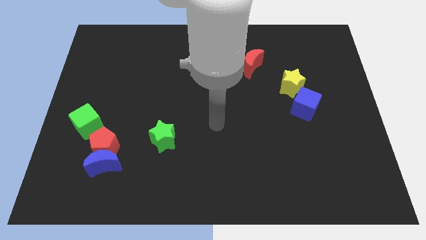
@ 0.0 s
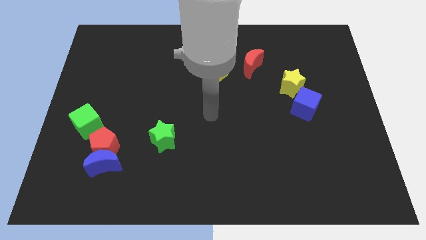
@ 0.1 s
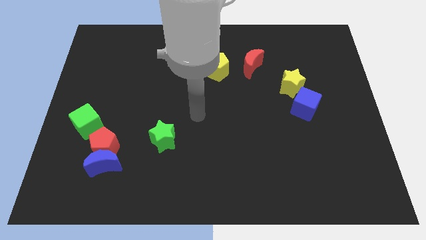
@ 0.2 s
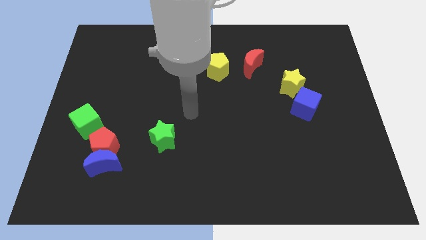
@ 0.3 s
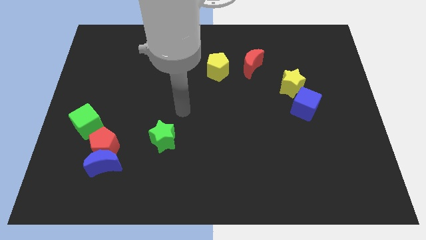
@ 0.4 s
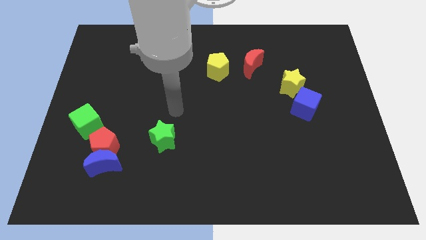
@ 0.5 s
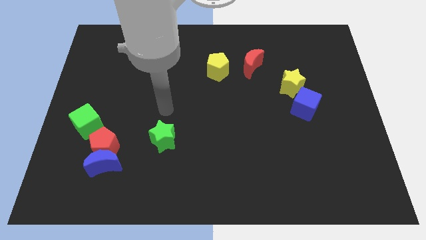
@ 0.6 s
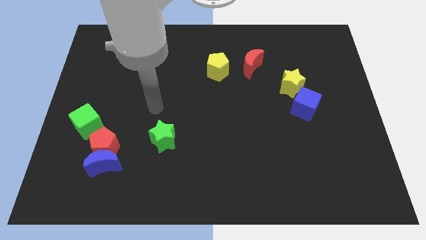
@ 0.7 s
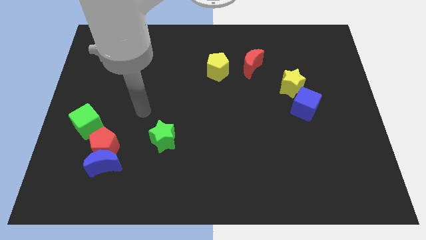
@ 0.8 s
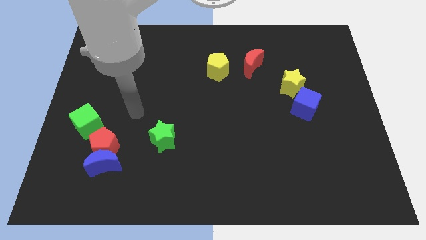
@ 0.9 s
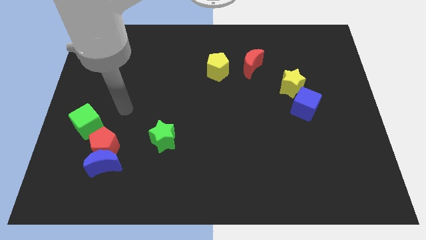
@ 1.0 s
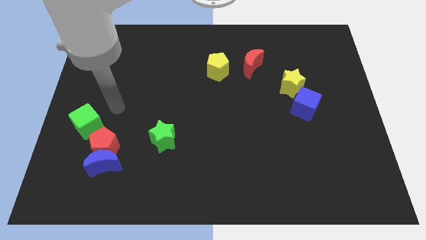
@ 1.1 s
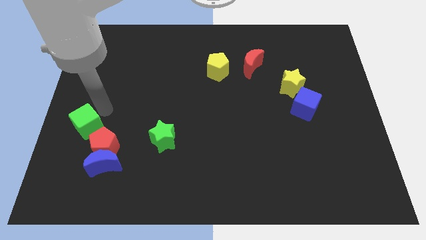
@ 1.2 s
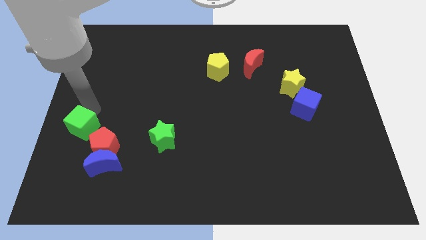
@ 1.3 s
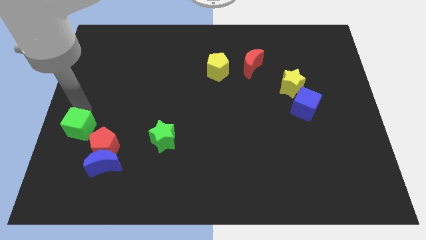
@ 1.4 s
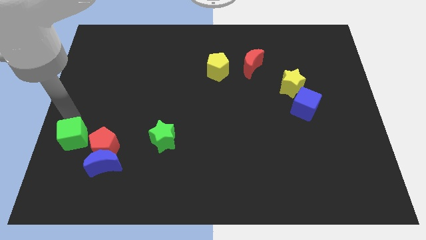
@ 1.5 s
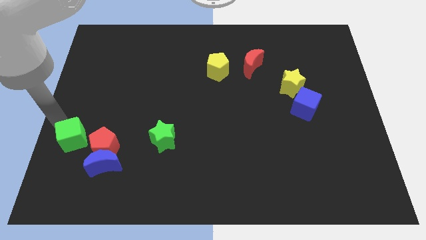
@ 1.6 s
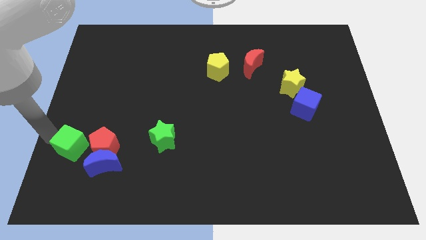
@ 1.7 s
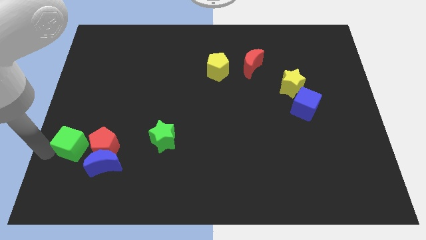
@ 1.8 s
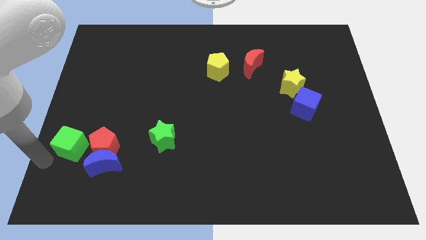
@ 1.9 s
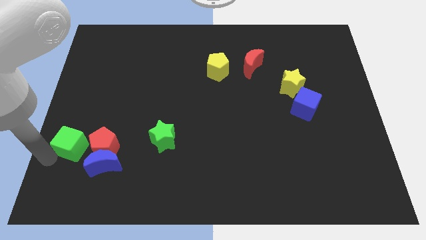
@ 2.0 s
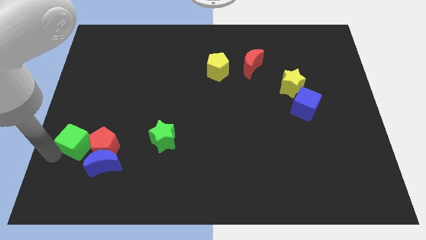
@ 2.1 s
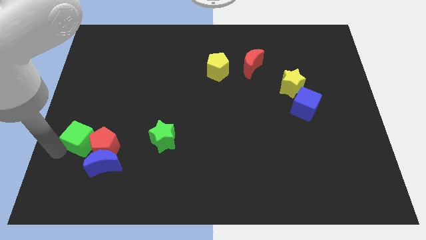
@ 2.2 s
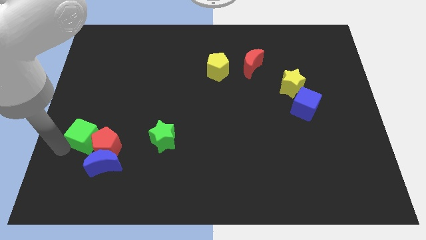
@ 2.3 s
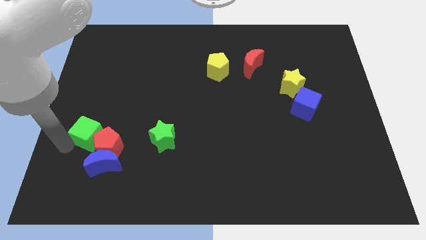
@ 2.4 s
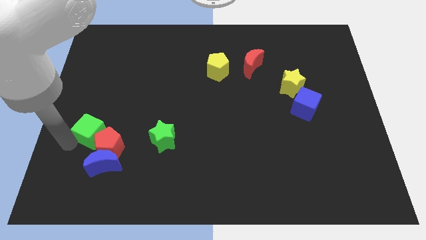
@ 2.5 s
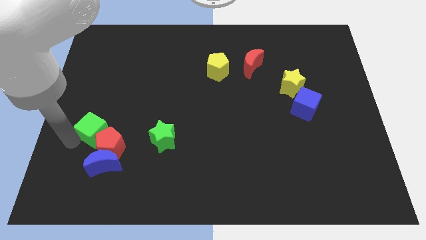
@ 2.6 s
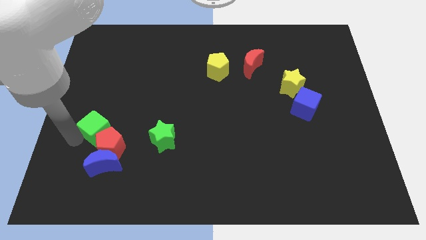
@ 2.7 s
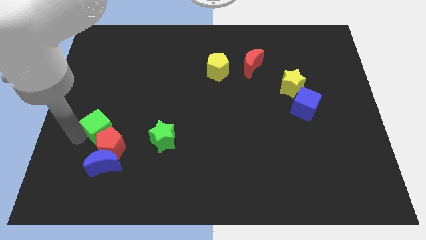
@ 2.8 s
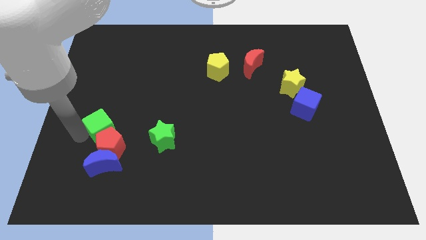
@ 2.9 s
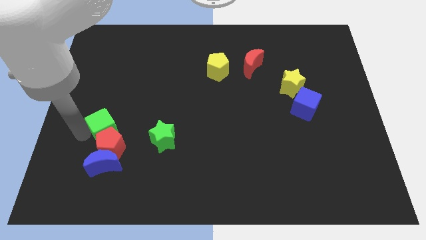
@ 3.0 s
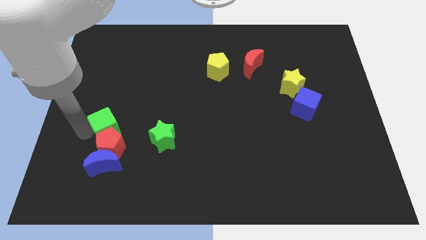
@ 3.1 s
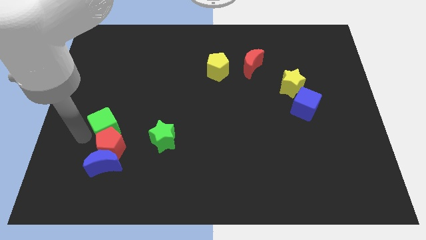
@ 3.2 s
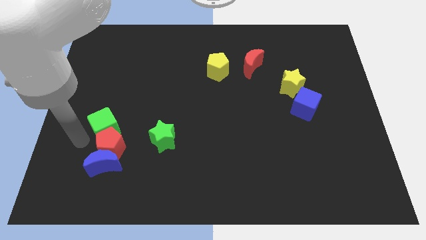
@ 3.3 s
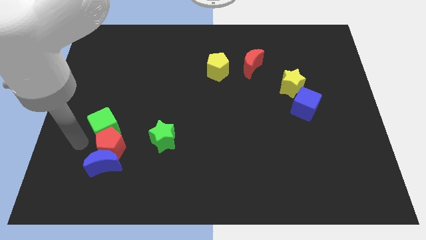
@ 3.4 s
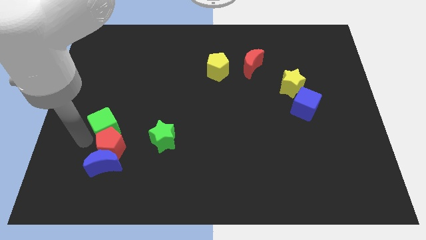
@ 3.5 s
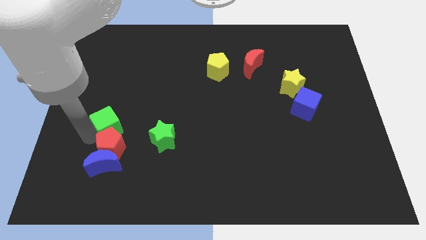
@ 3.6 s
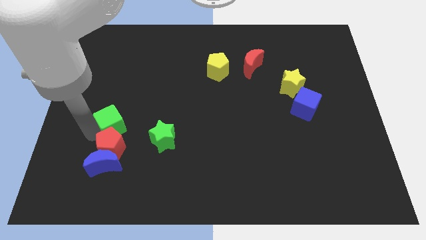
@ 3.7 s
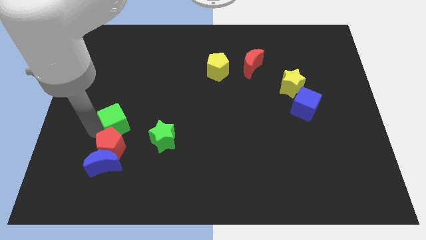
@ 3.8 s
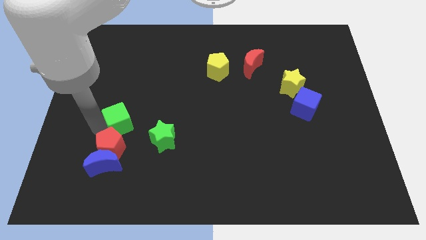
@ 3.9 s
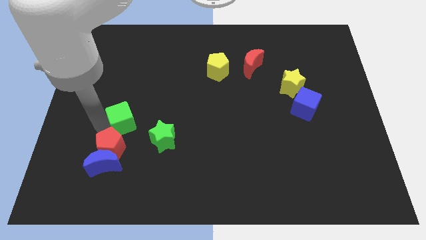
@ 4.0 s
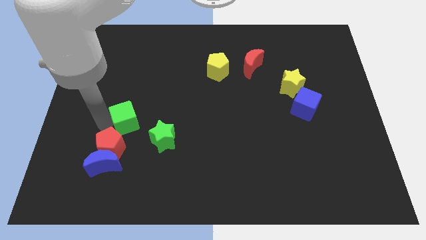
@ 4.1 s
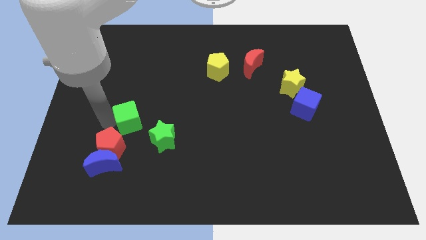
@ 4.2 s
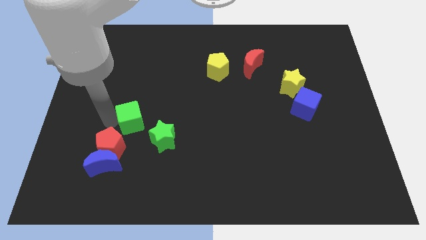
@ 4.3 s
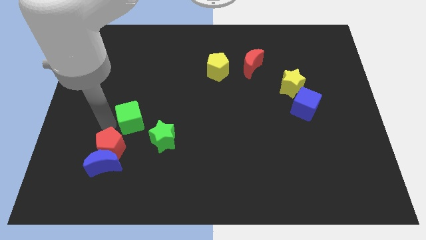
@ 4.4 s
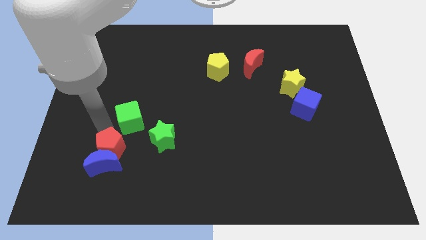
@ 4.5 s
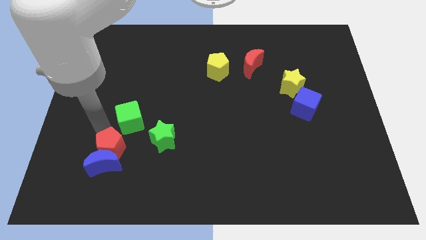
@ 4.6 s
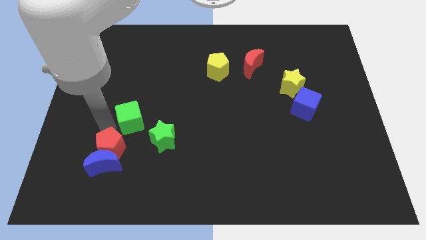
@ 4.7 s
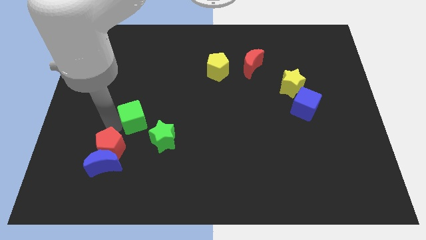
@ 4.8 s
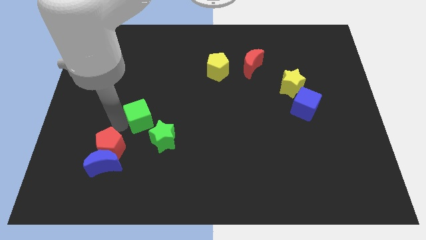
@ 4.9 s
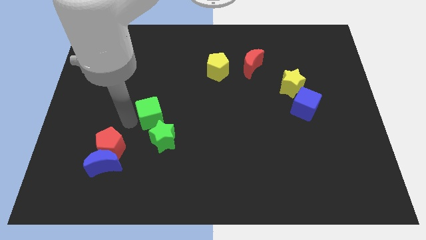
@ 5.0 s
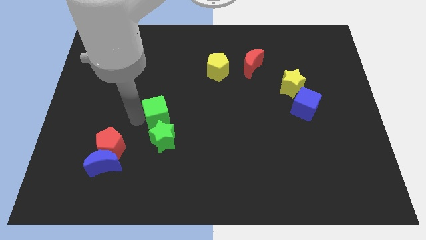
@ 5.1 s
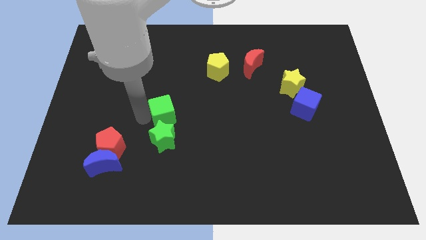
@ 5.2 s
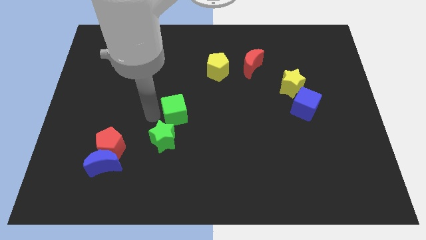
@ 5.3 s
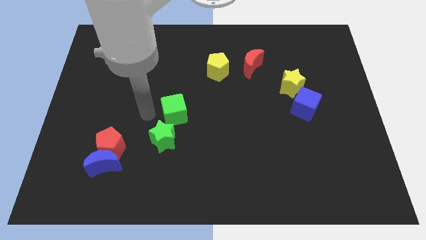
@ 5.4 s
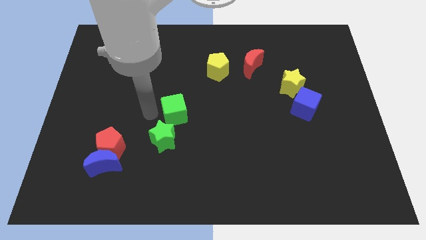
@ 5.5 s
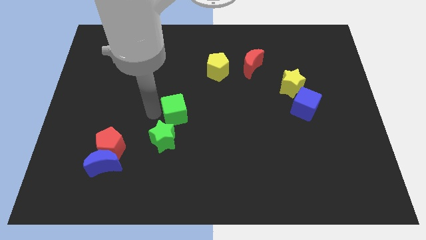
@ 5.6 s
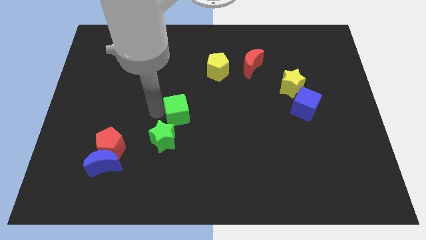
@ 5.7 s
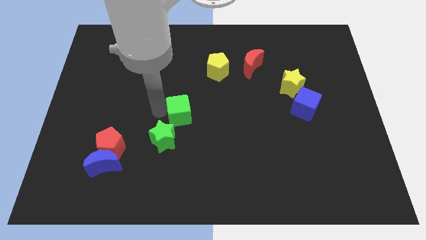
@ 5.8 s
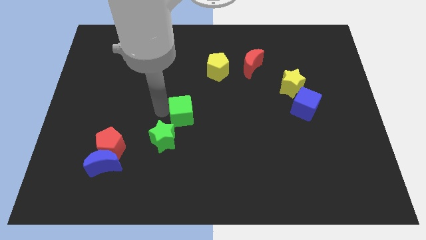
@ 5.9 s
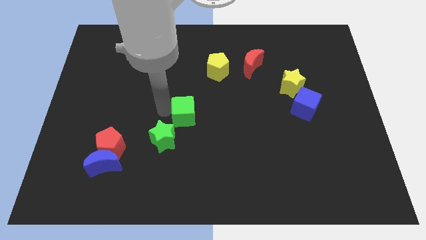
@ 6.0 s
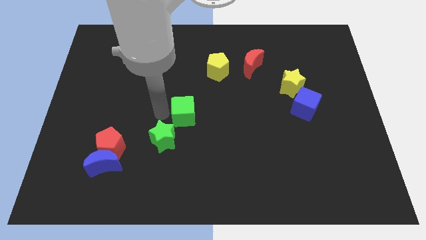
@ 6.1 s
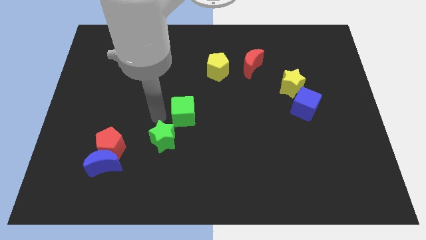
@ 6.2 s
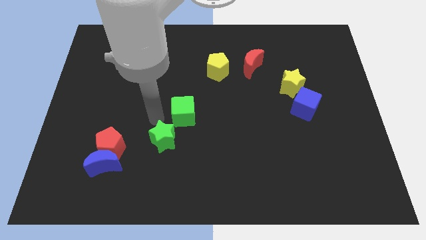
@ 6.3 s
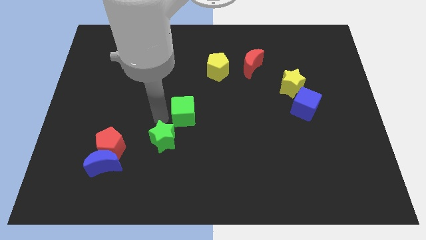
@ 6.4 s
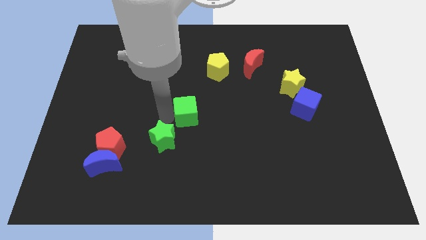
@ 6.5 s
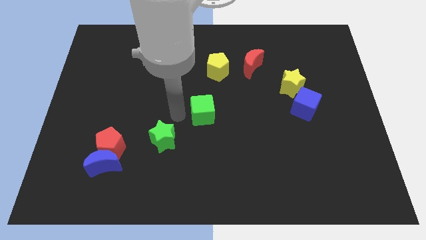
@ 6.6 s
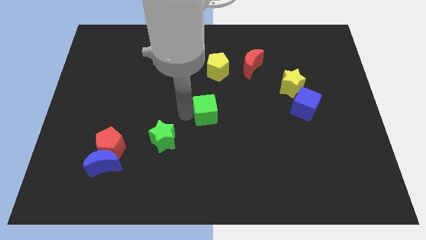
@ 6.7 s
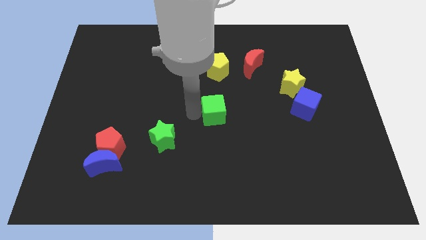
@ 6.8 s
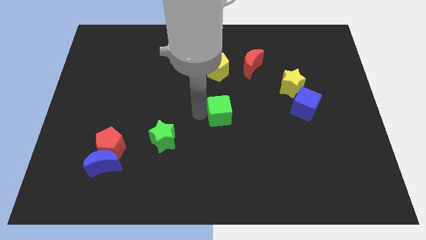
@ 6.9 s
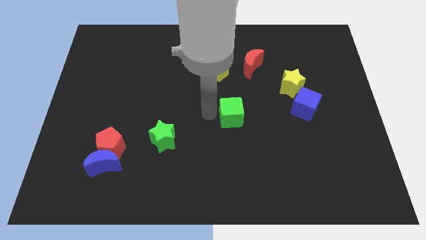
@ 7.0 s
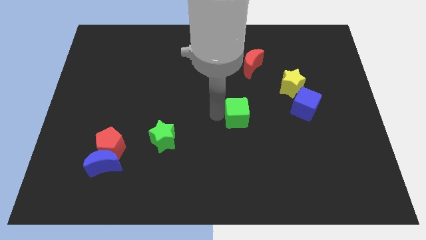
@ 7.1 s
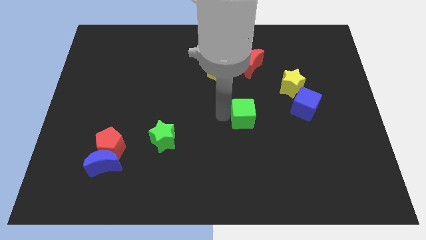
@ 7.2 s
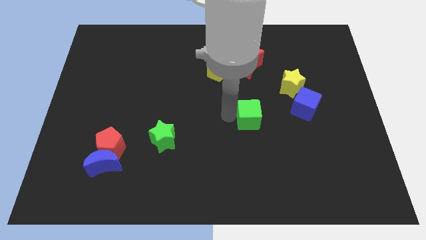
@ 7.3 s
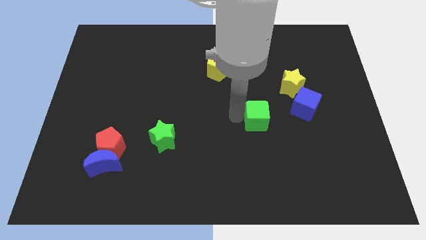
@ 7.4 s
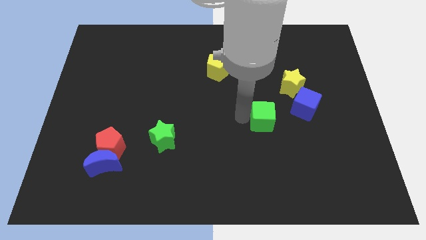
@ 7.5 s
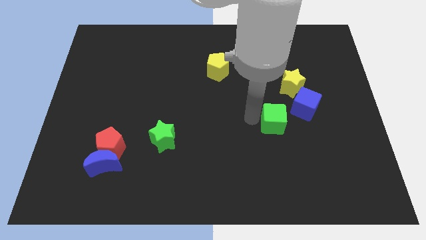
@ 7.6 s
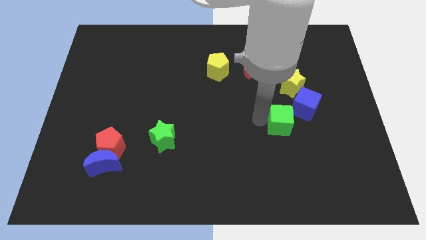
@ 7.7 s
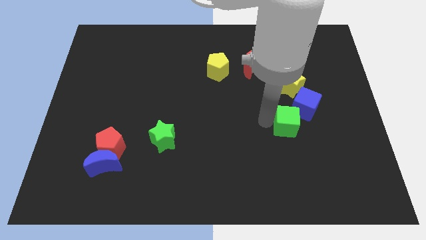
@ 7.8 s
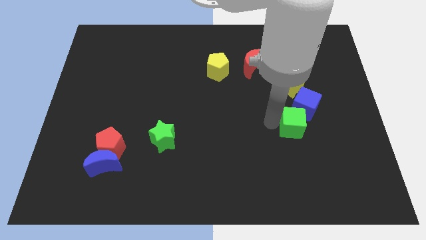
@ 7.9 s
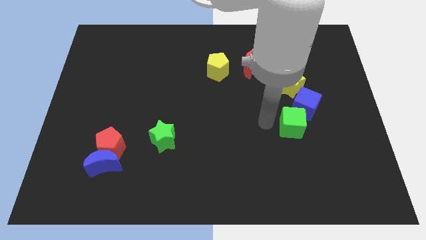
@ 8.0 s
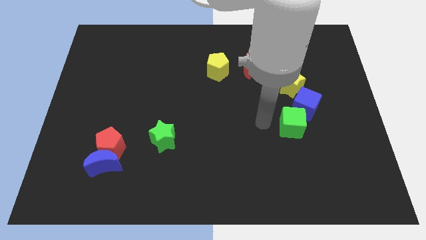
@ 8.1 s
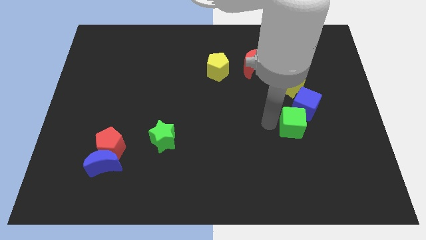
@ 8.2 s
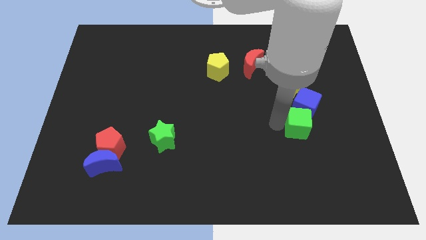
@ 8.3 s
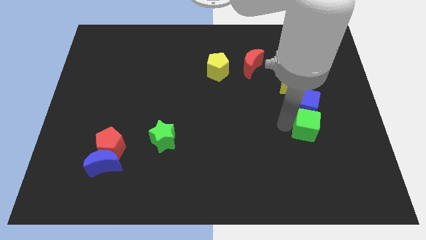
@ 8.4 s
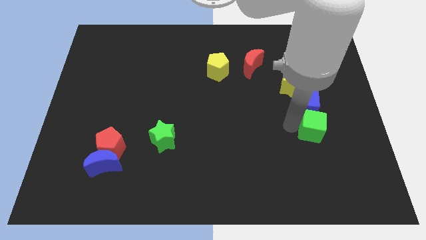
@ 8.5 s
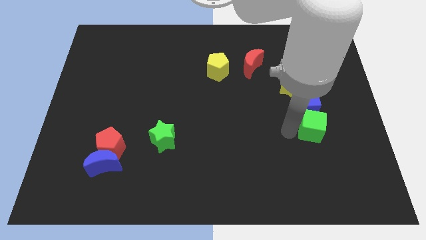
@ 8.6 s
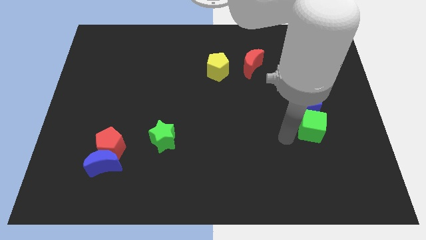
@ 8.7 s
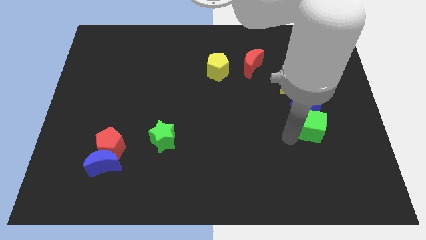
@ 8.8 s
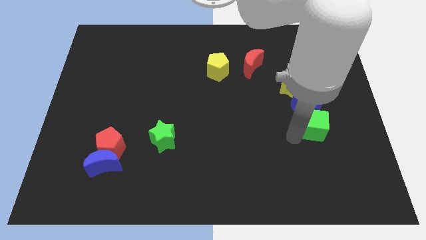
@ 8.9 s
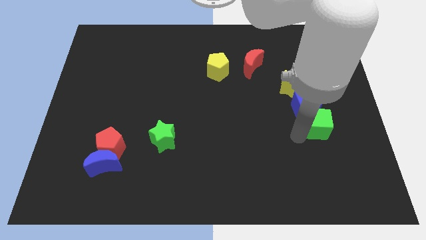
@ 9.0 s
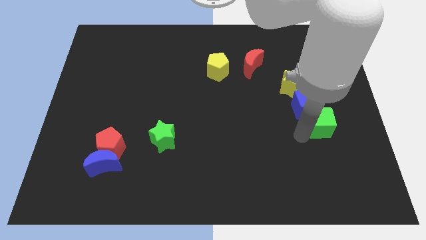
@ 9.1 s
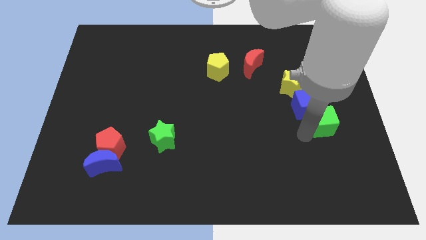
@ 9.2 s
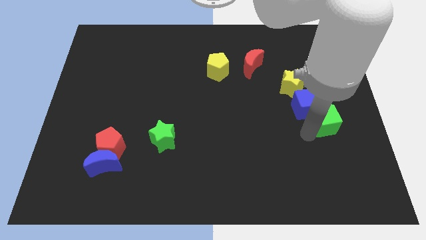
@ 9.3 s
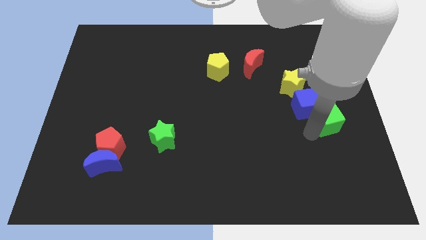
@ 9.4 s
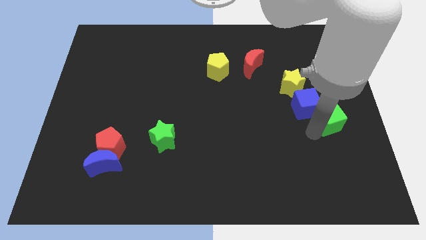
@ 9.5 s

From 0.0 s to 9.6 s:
push the green cube to the center right
